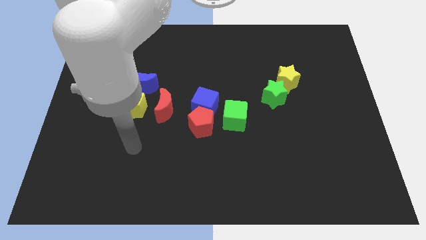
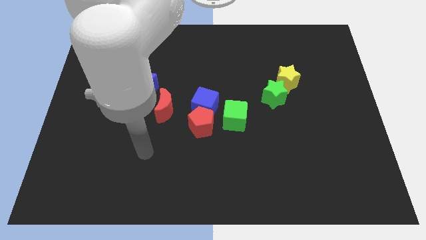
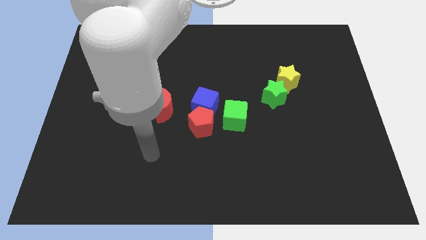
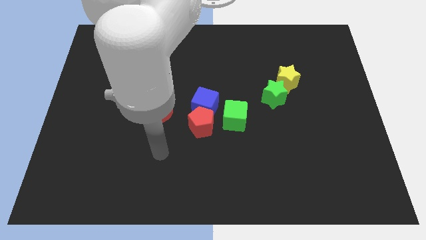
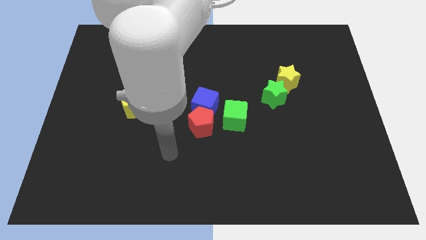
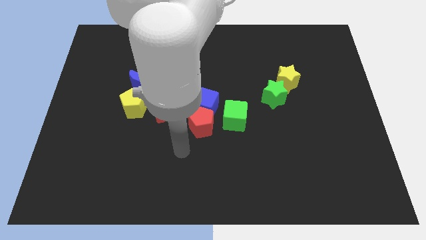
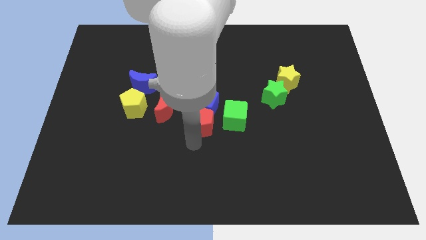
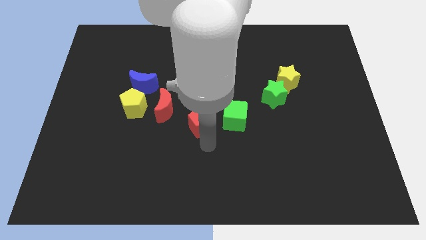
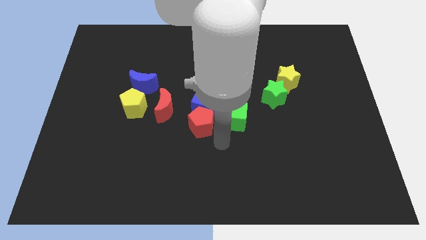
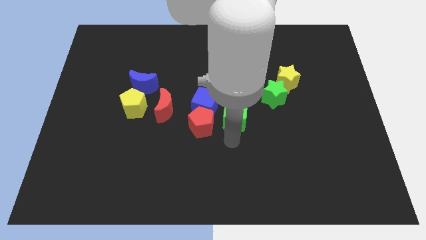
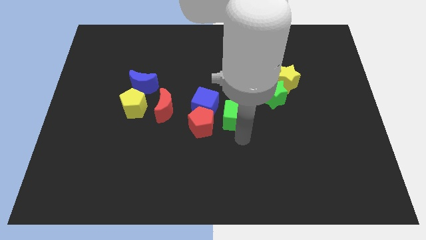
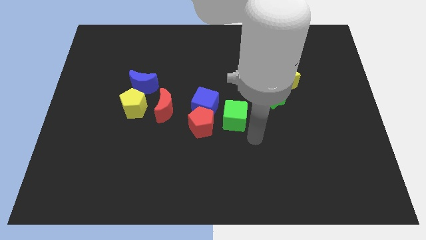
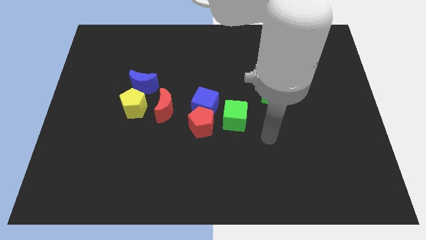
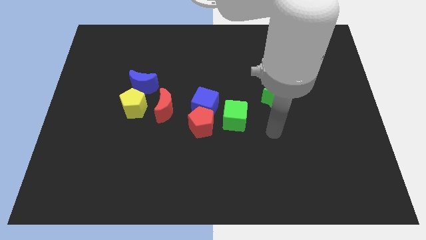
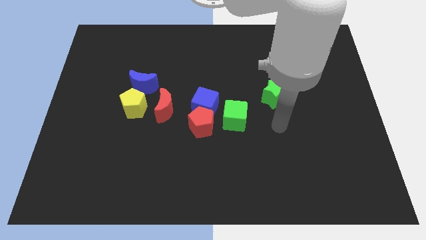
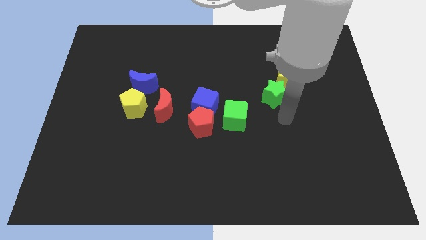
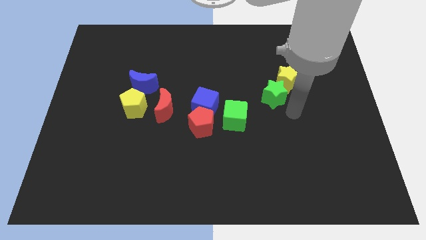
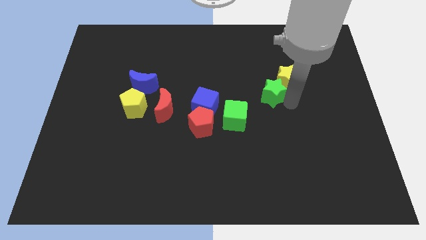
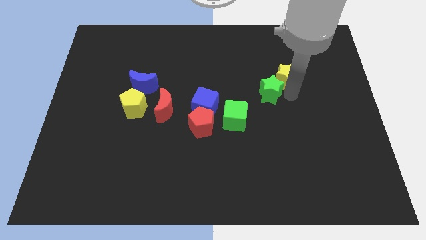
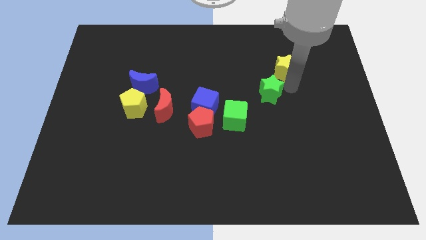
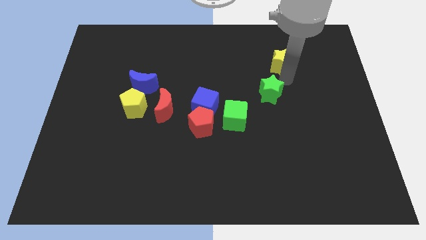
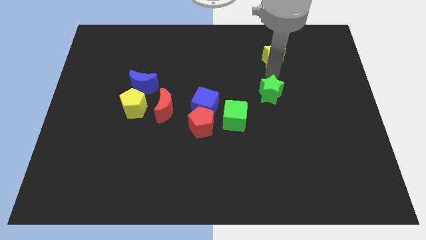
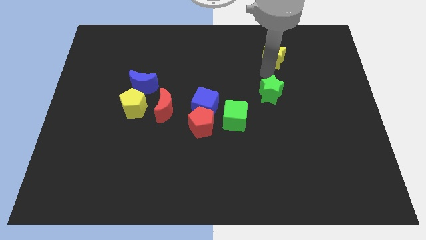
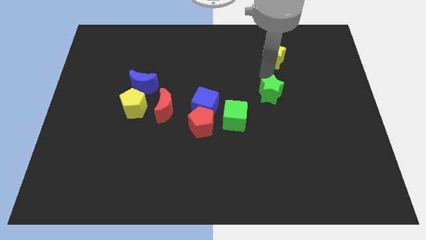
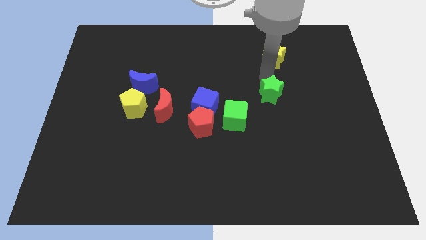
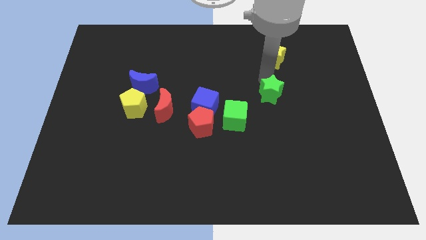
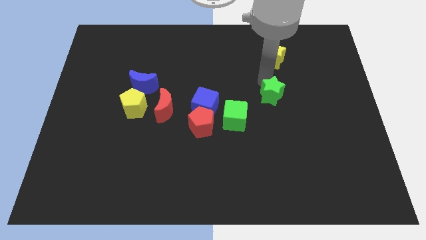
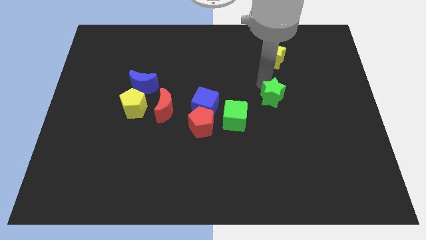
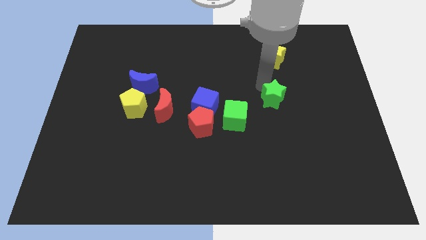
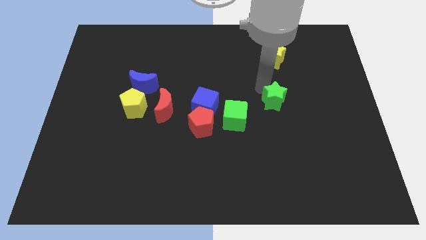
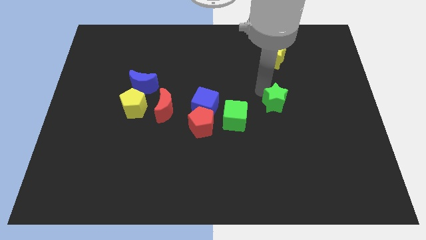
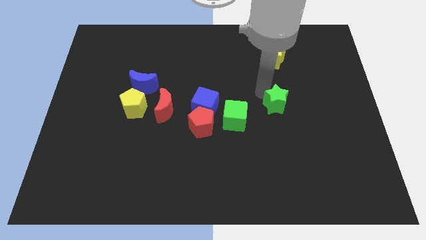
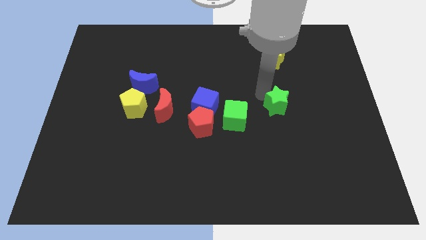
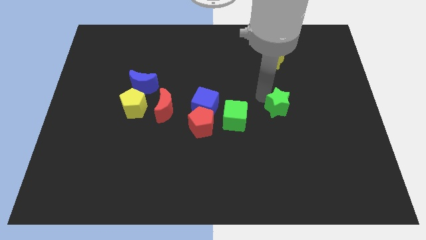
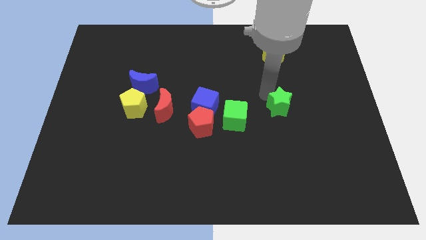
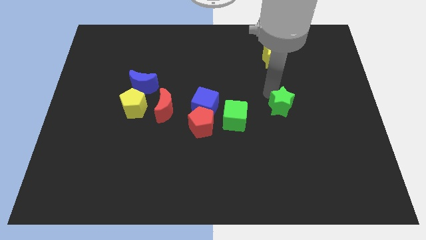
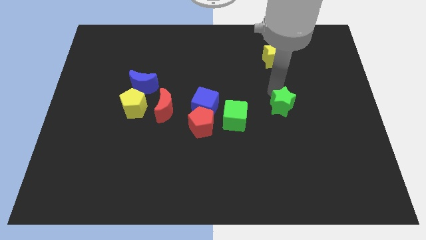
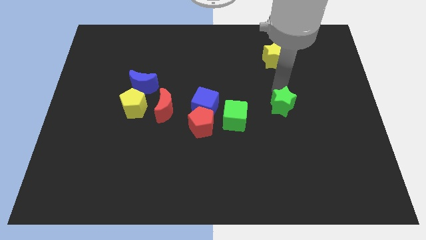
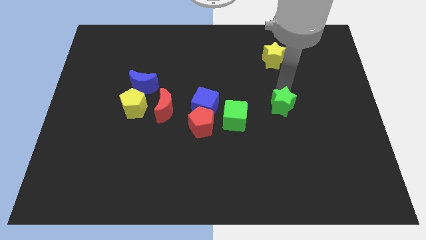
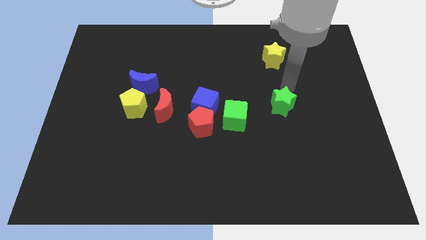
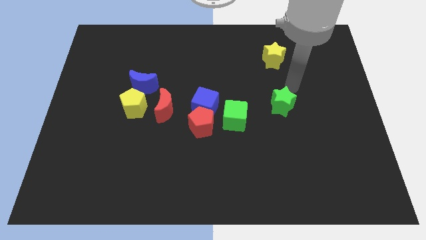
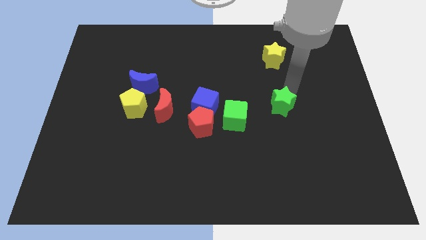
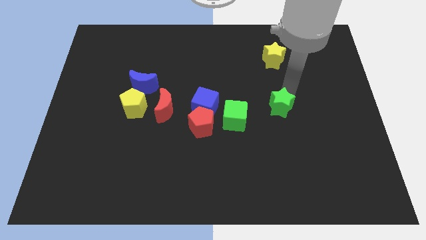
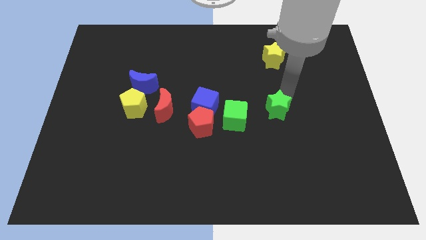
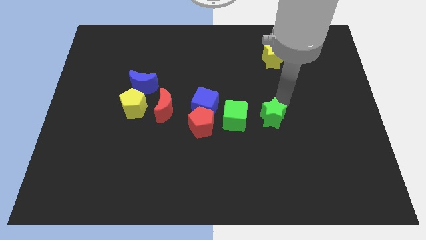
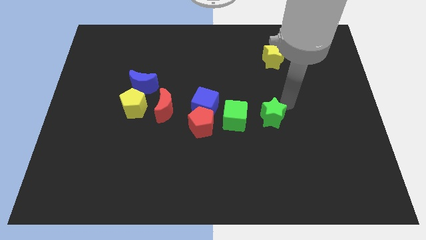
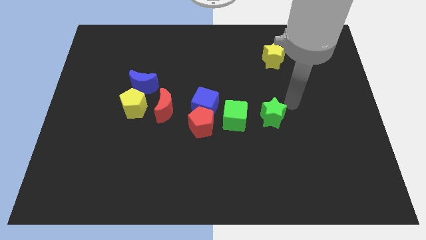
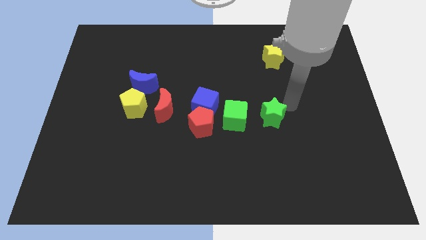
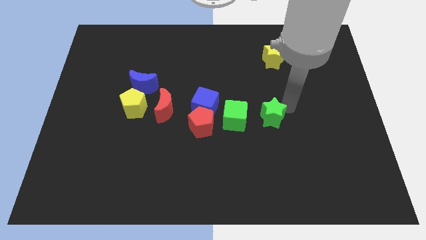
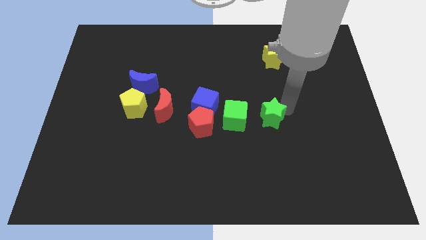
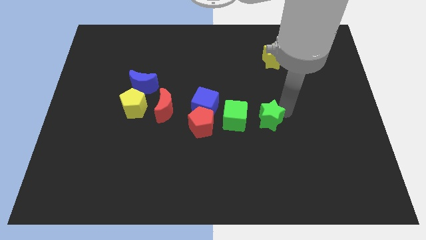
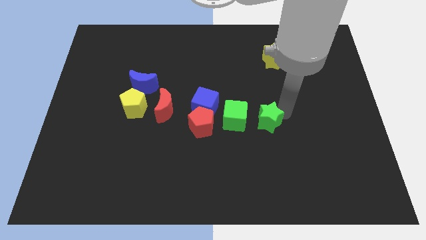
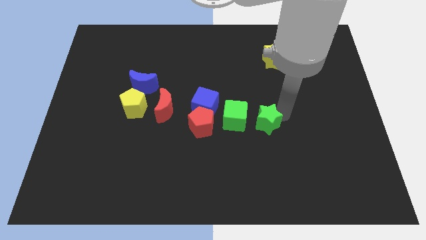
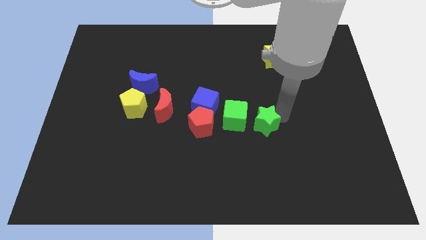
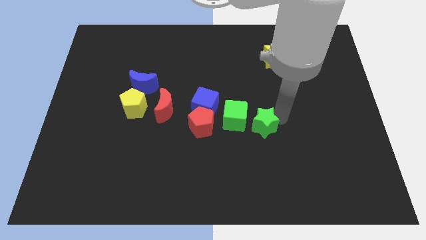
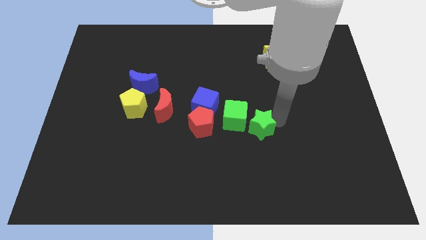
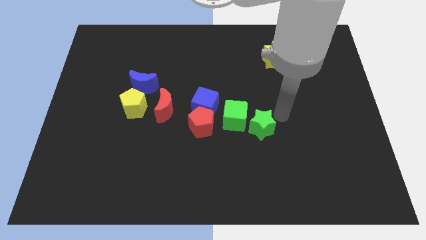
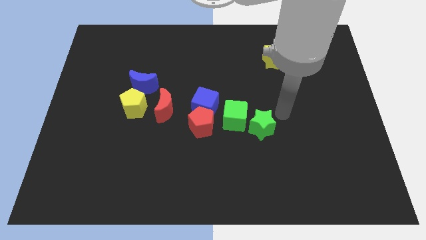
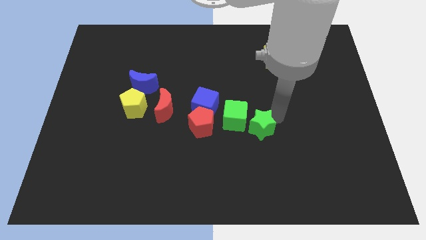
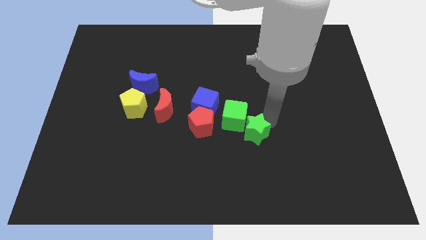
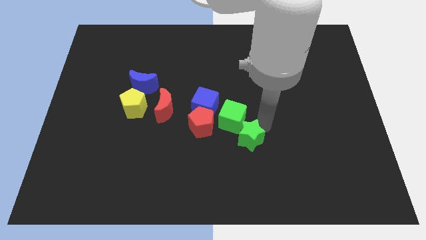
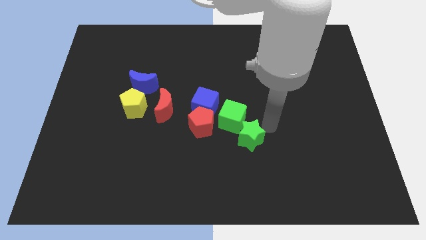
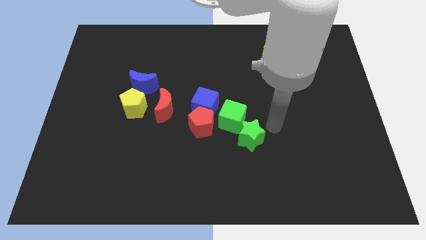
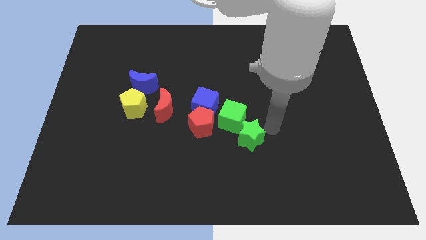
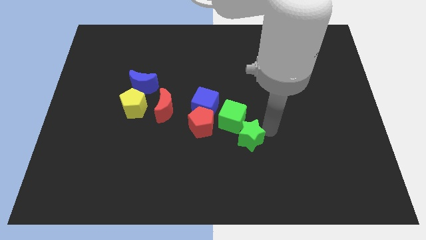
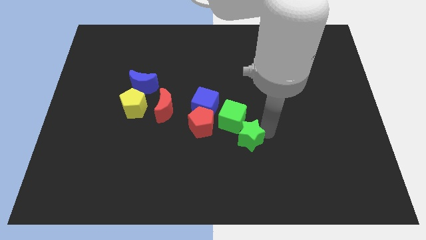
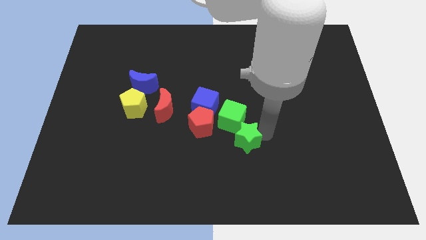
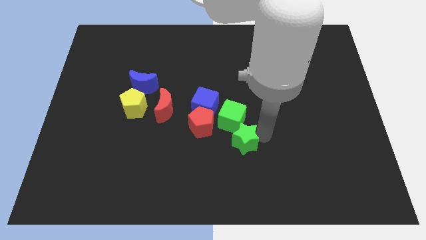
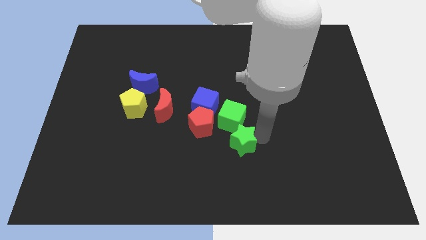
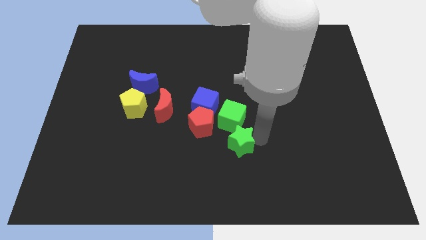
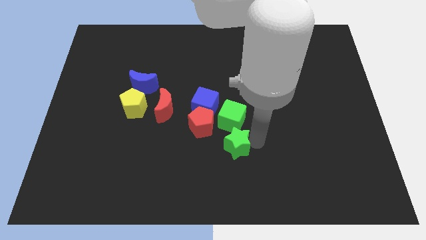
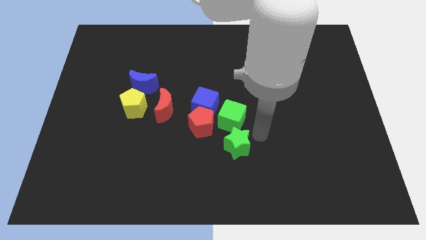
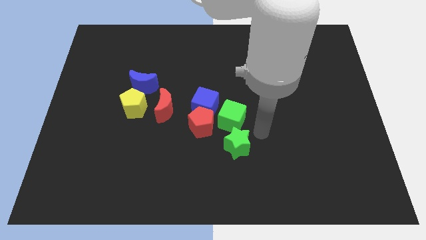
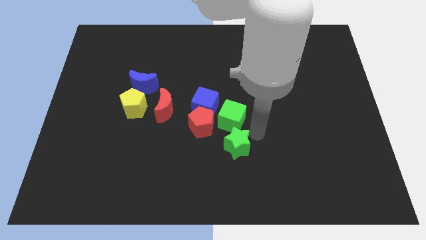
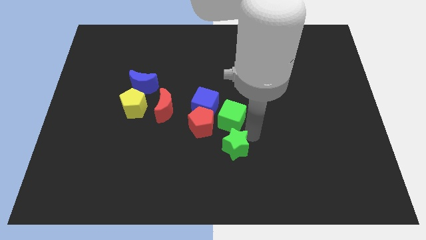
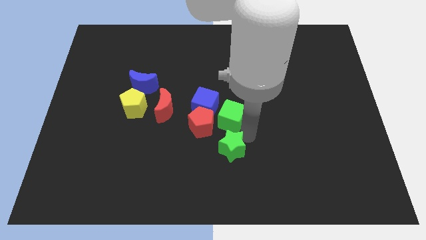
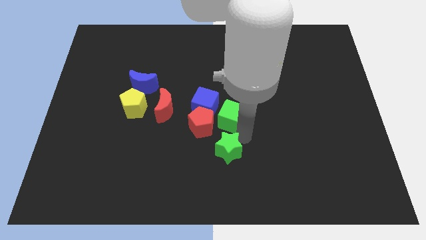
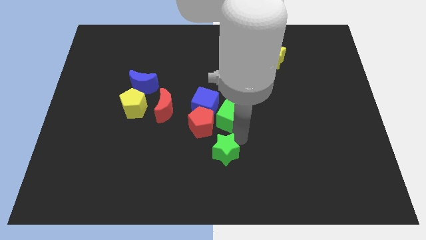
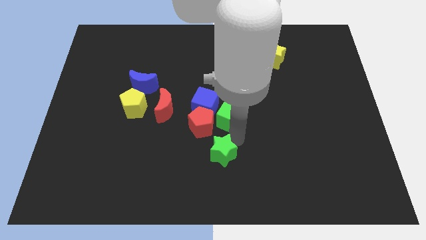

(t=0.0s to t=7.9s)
push the green star downwards and then left

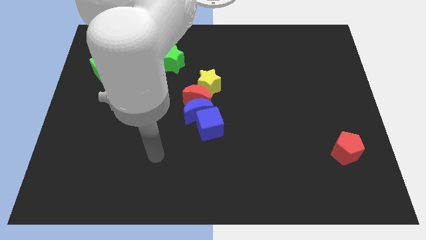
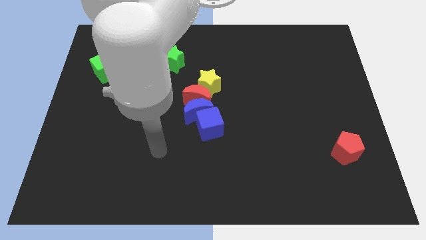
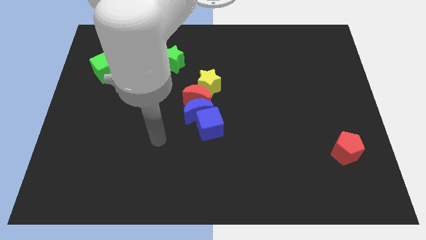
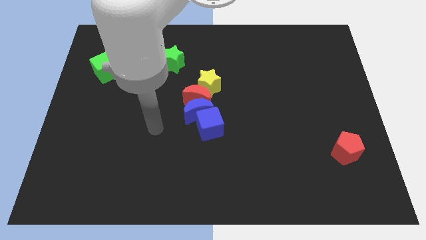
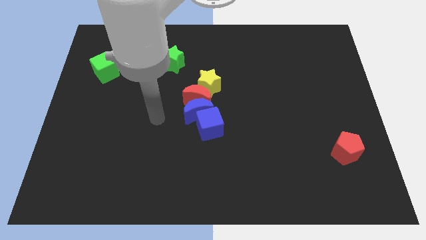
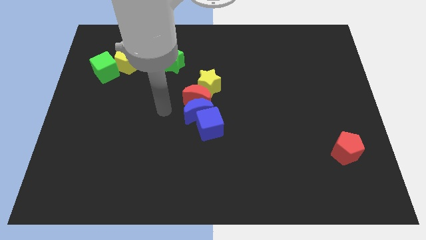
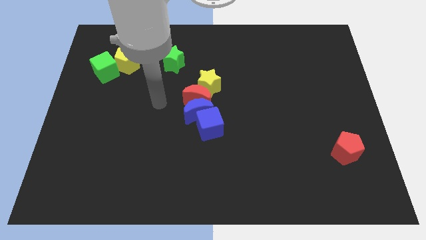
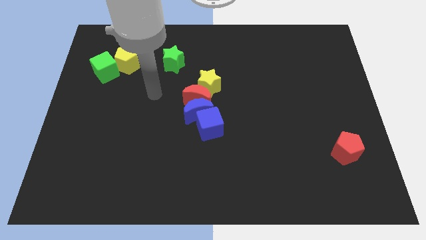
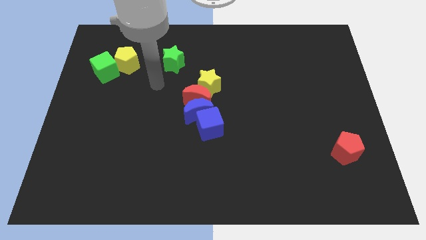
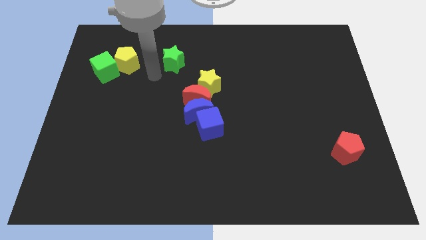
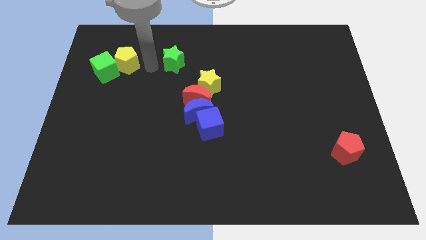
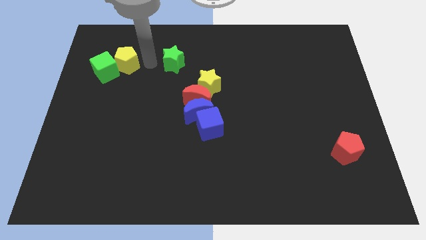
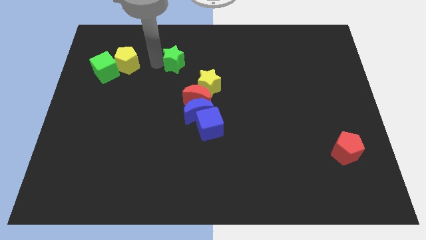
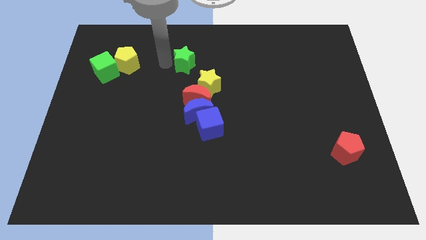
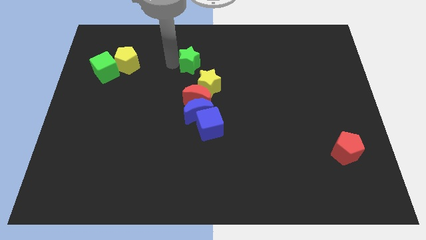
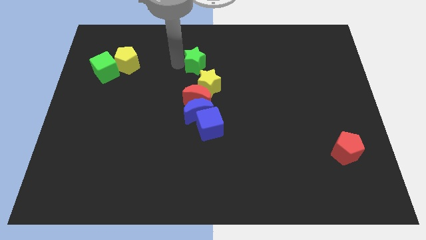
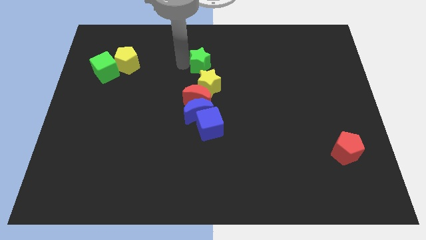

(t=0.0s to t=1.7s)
slide the green star a little to the right
